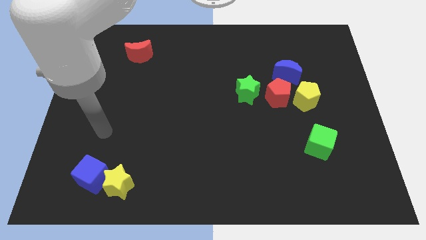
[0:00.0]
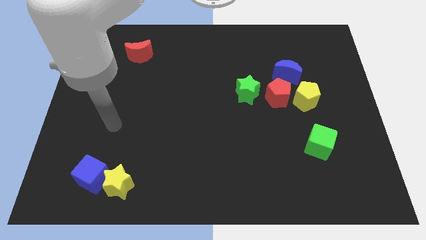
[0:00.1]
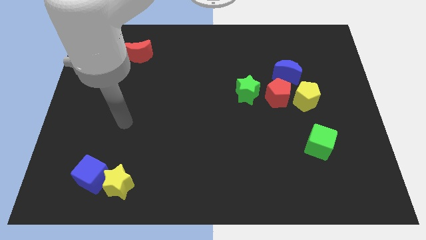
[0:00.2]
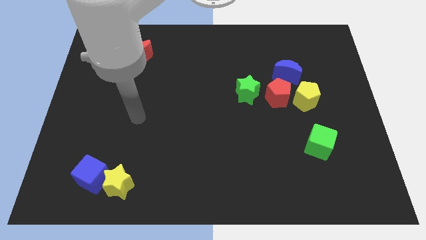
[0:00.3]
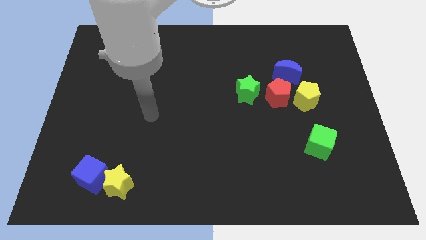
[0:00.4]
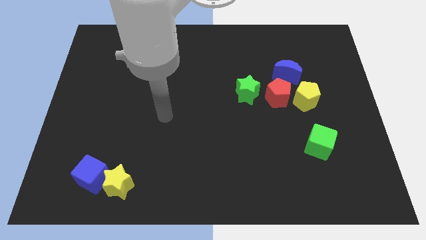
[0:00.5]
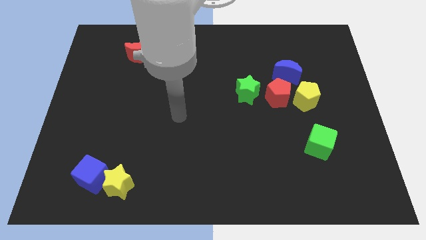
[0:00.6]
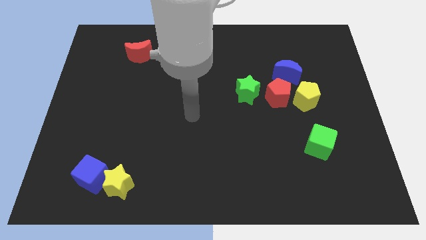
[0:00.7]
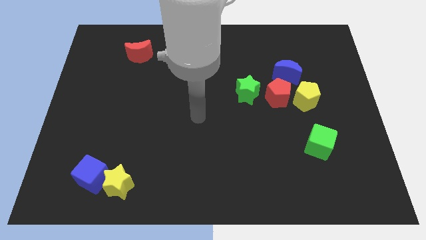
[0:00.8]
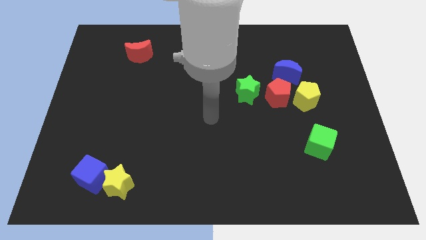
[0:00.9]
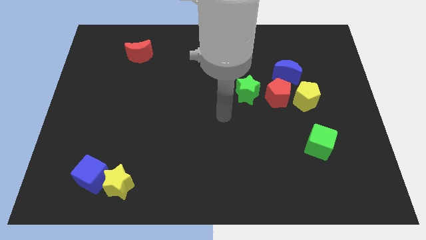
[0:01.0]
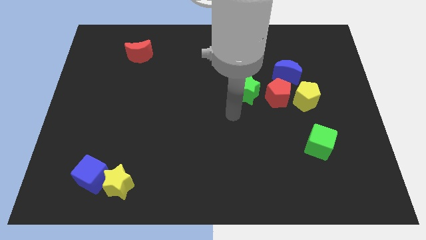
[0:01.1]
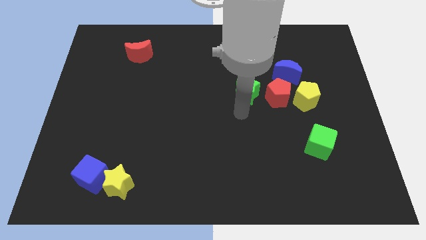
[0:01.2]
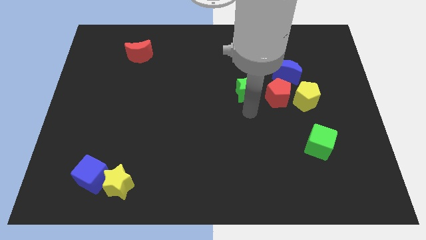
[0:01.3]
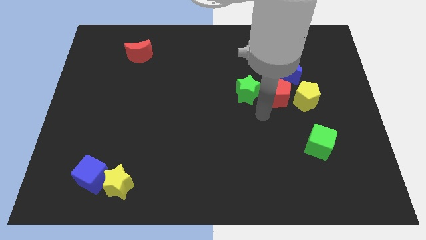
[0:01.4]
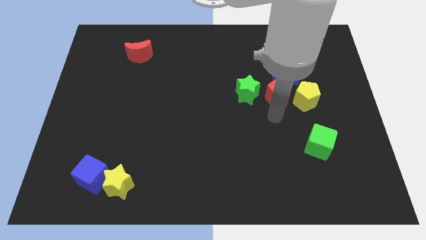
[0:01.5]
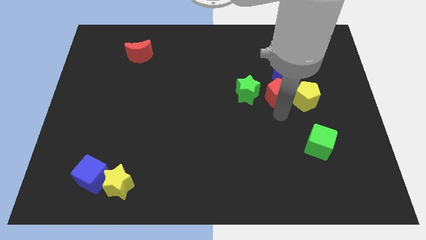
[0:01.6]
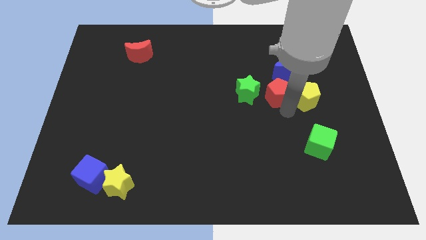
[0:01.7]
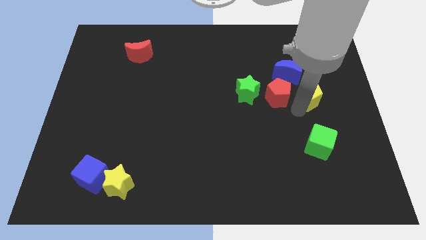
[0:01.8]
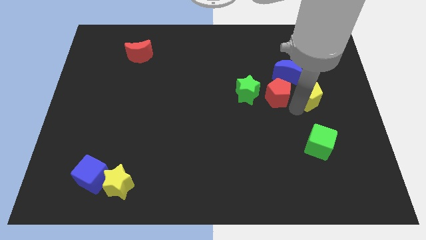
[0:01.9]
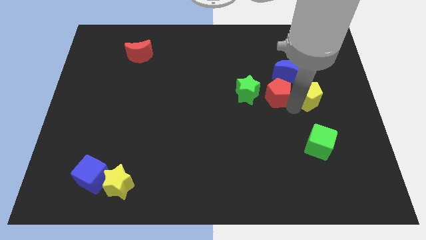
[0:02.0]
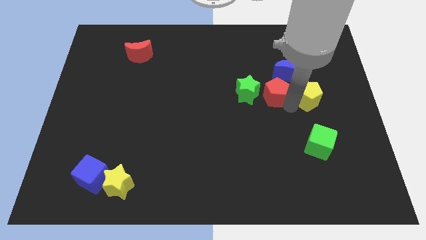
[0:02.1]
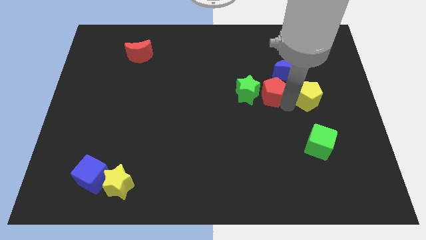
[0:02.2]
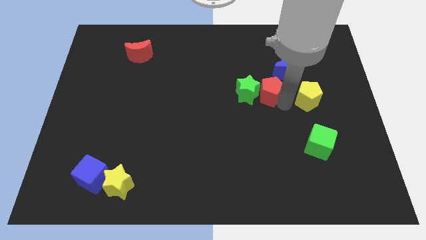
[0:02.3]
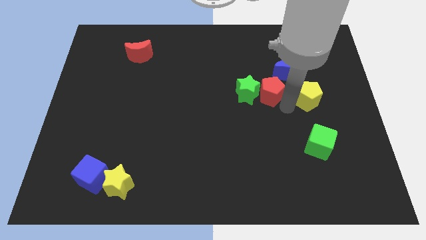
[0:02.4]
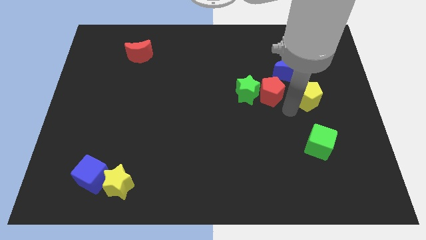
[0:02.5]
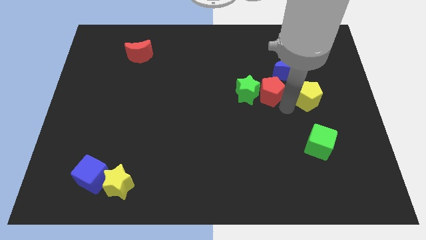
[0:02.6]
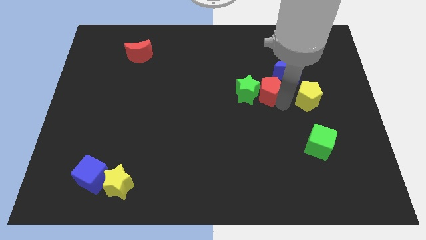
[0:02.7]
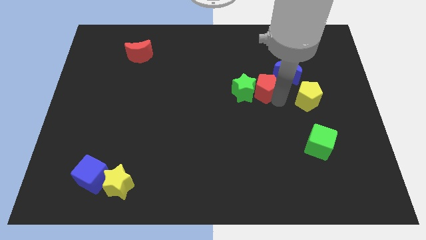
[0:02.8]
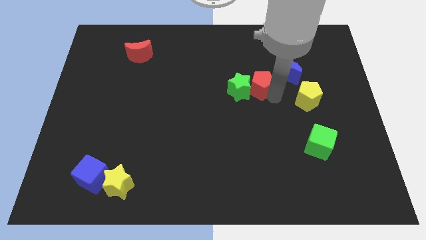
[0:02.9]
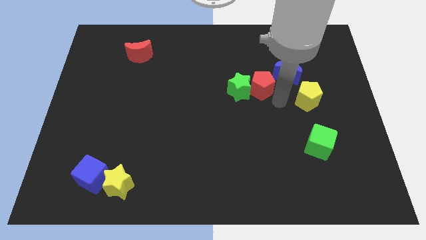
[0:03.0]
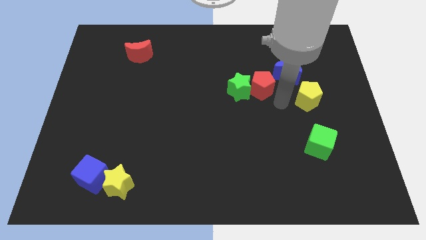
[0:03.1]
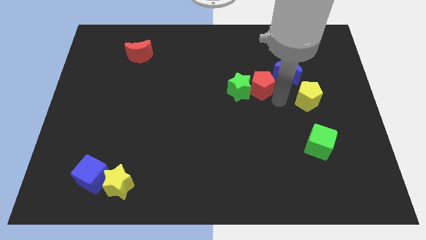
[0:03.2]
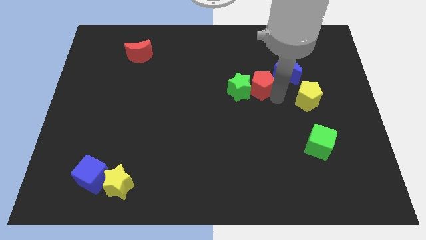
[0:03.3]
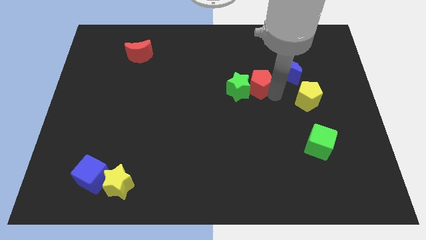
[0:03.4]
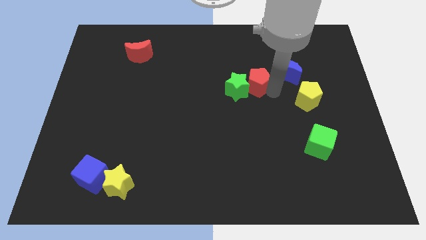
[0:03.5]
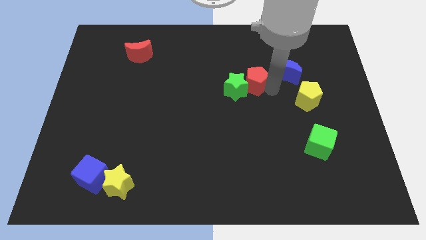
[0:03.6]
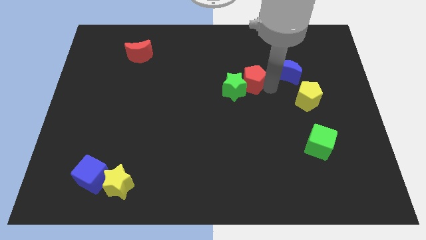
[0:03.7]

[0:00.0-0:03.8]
slide the red pentagon a bit upwards and left diagonally

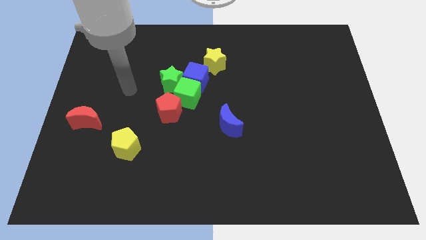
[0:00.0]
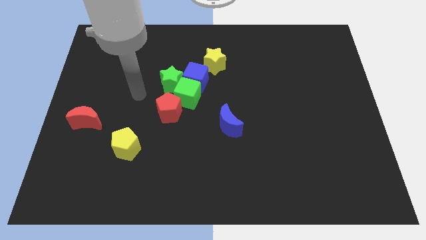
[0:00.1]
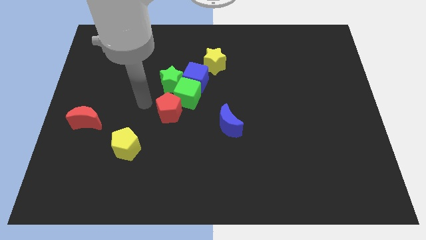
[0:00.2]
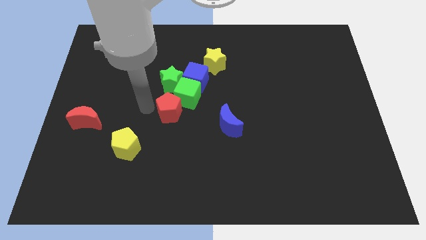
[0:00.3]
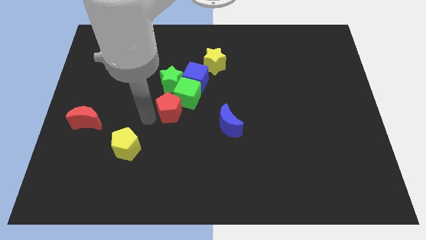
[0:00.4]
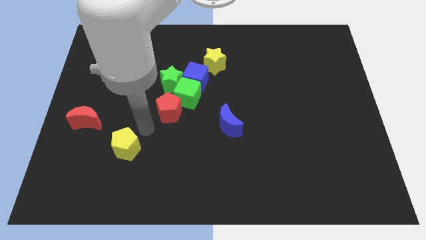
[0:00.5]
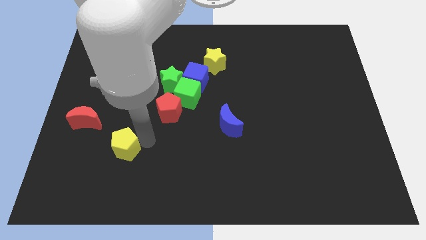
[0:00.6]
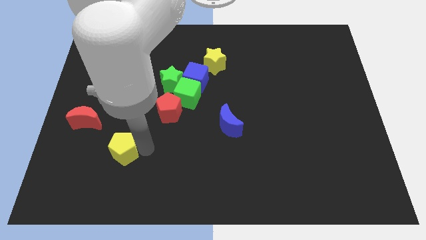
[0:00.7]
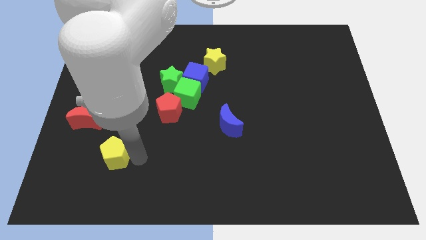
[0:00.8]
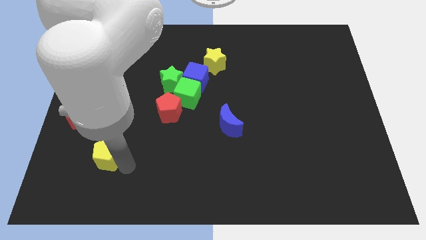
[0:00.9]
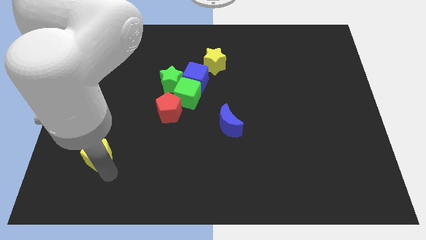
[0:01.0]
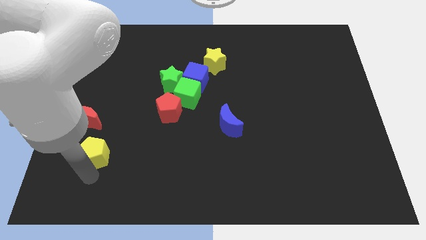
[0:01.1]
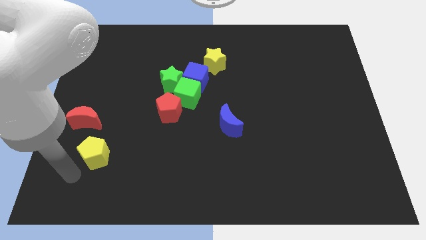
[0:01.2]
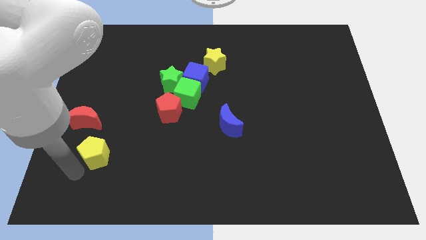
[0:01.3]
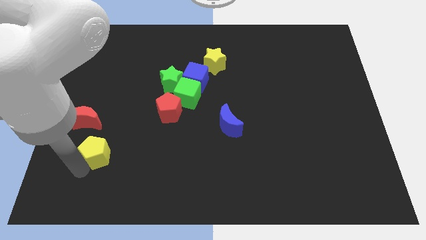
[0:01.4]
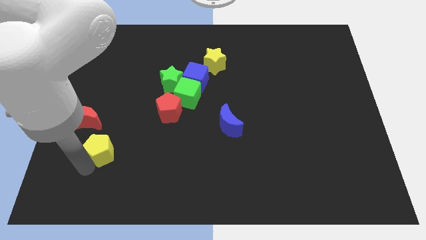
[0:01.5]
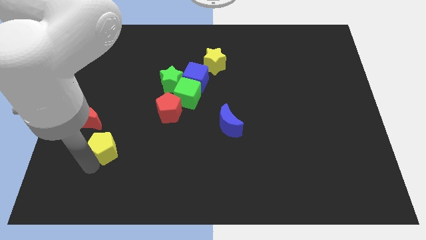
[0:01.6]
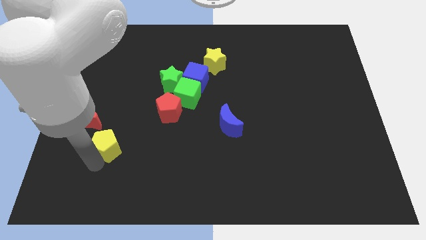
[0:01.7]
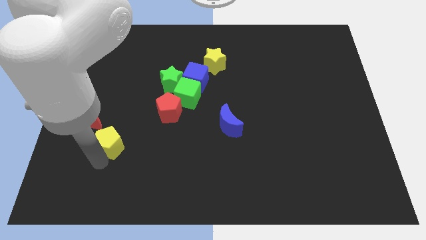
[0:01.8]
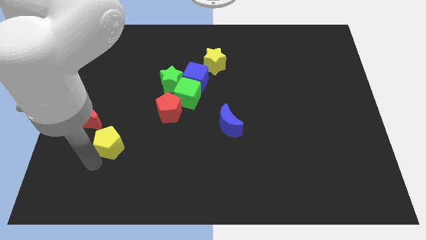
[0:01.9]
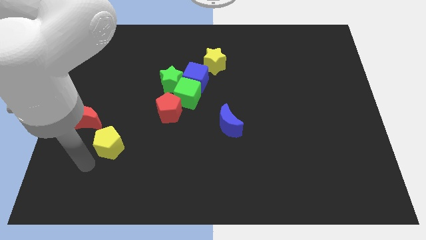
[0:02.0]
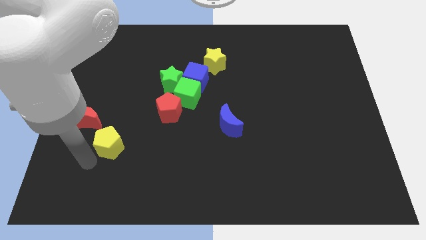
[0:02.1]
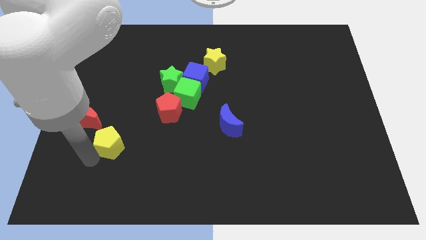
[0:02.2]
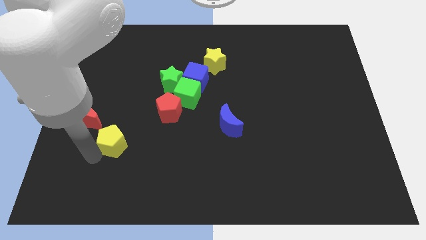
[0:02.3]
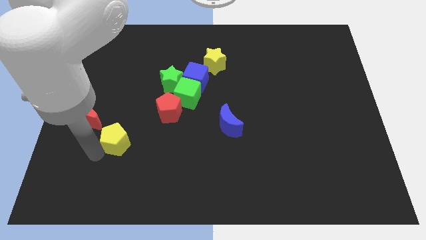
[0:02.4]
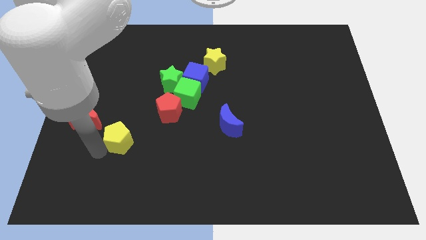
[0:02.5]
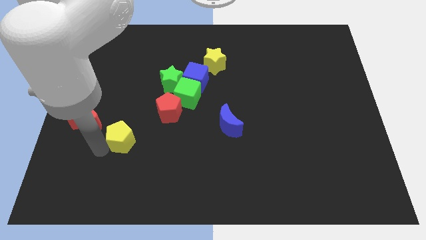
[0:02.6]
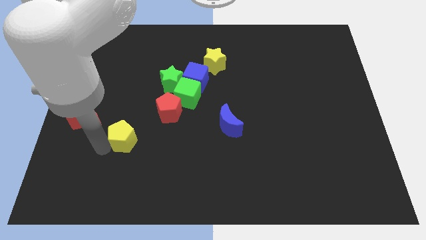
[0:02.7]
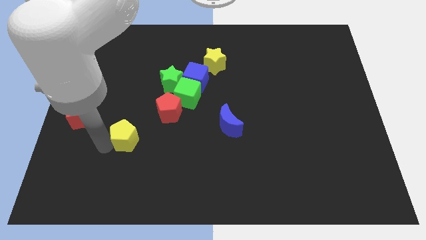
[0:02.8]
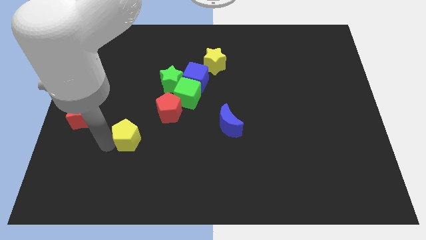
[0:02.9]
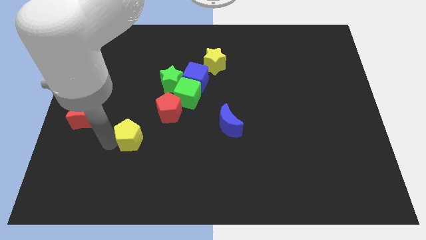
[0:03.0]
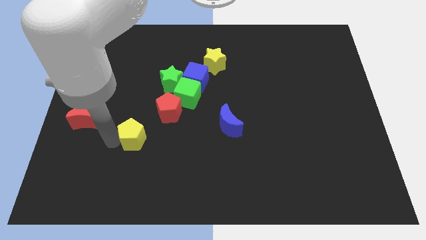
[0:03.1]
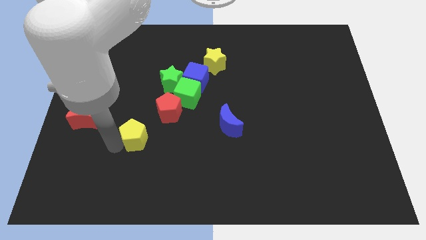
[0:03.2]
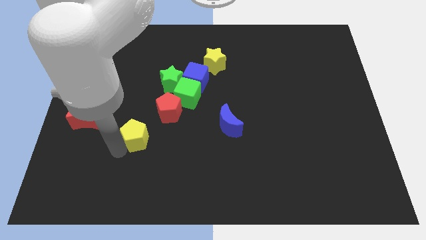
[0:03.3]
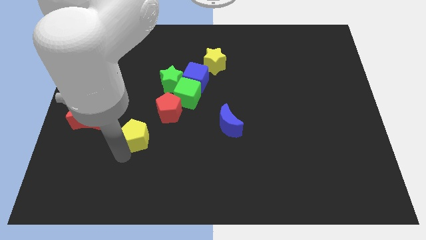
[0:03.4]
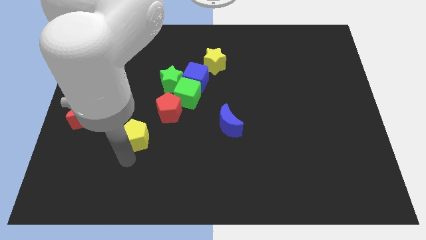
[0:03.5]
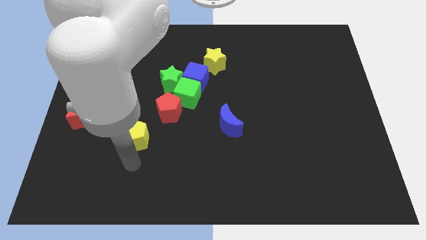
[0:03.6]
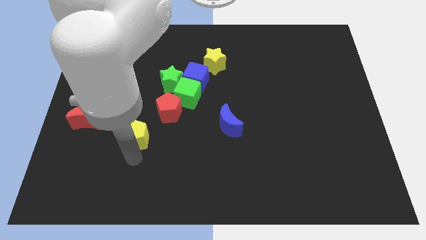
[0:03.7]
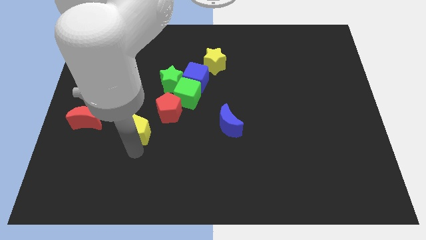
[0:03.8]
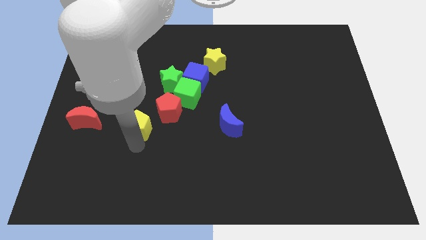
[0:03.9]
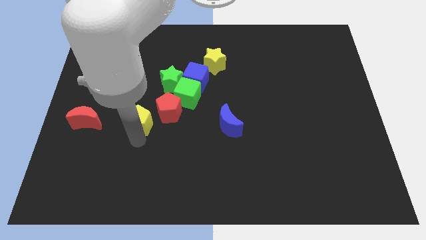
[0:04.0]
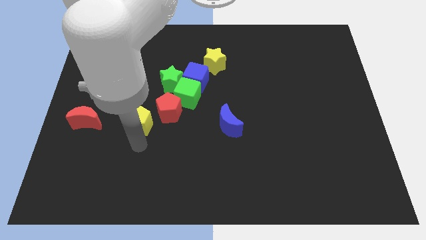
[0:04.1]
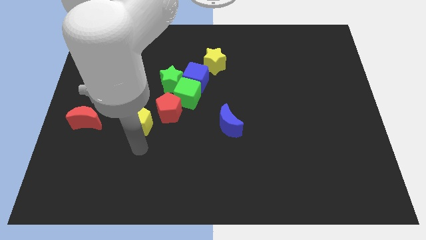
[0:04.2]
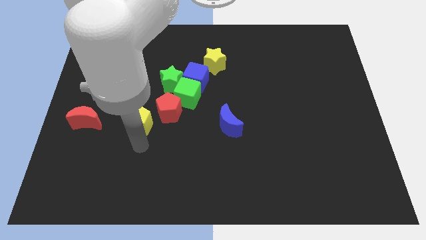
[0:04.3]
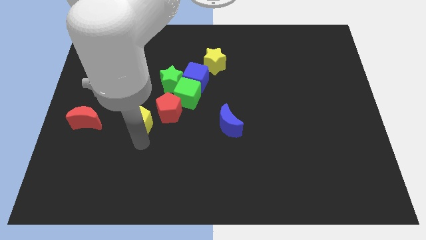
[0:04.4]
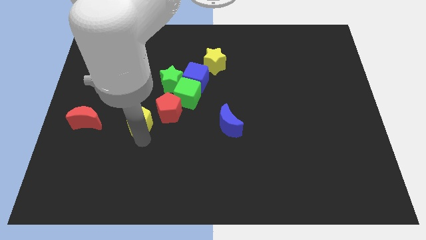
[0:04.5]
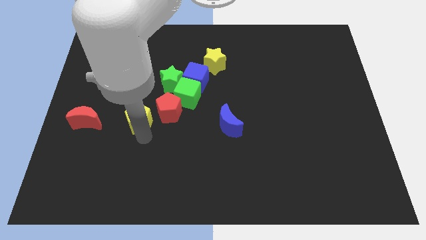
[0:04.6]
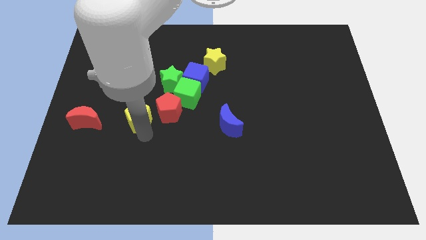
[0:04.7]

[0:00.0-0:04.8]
slightly slide the yellow pentagon upwards
